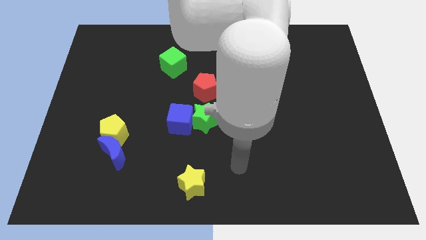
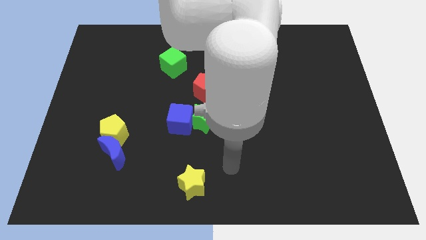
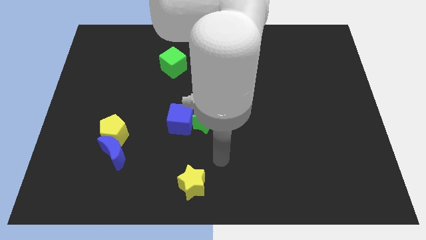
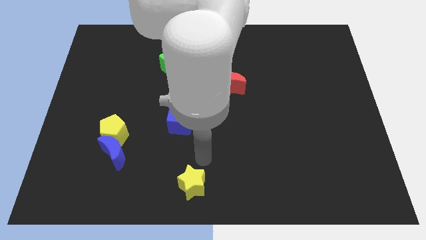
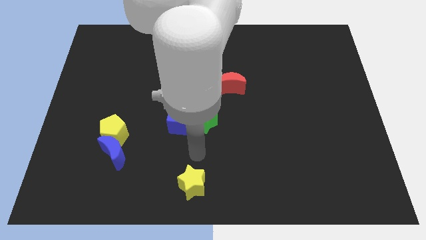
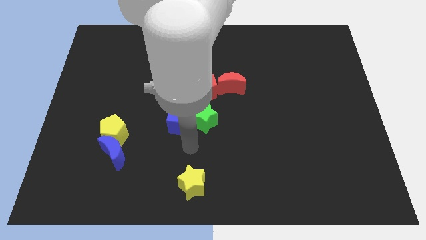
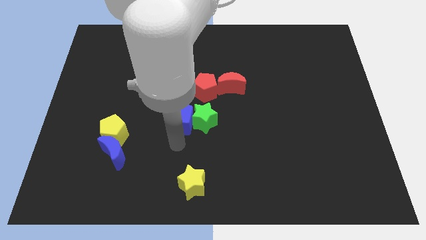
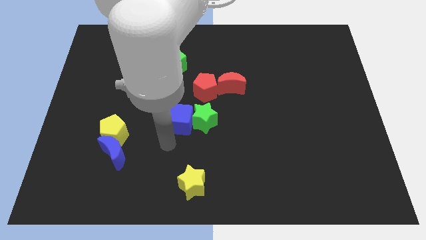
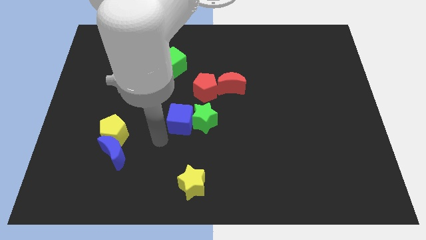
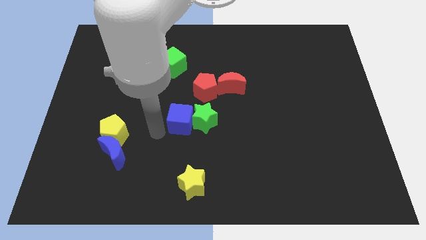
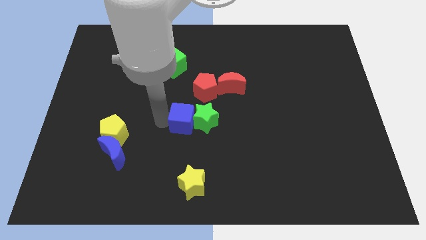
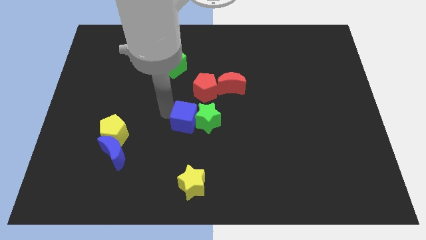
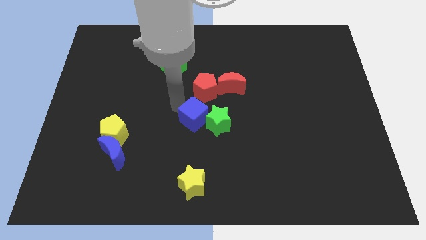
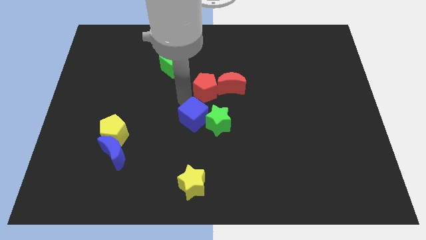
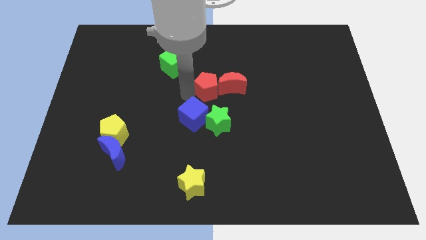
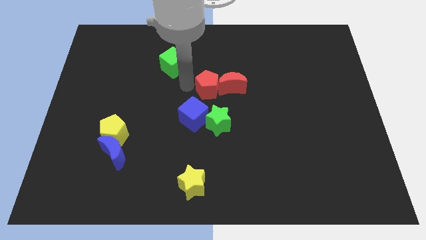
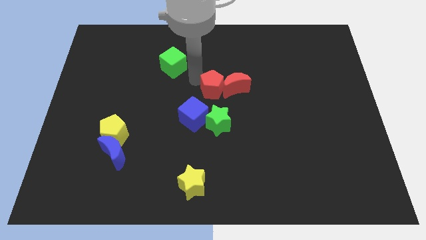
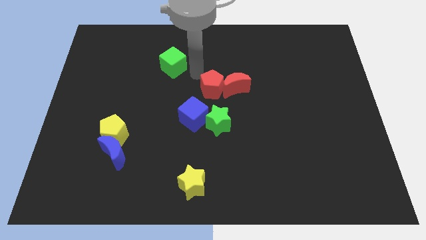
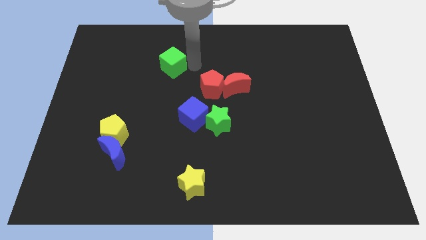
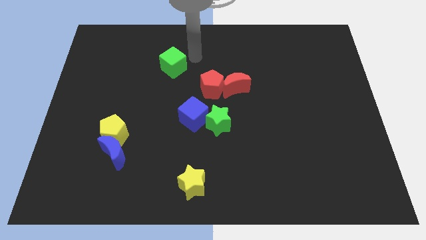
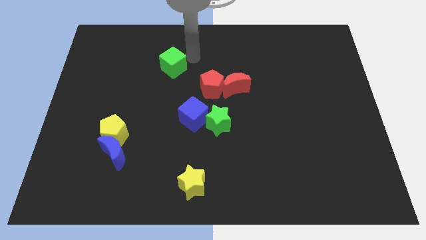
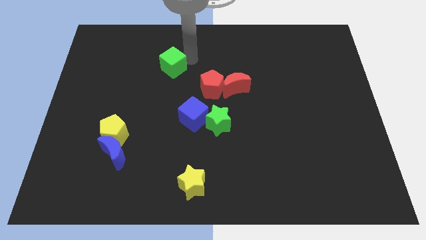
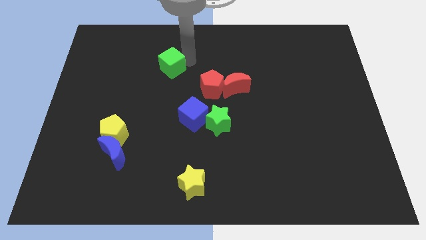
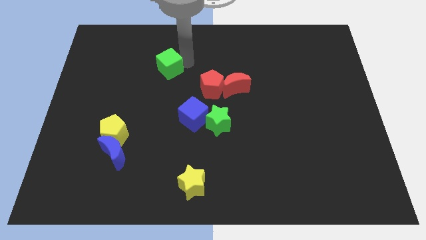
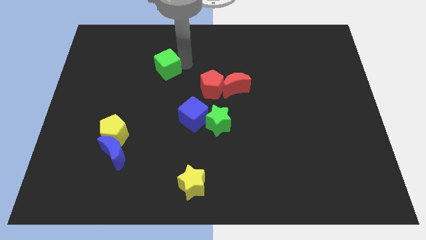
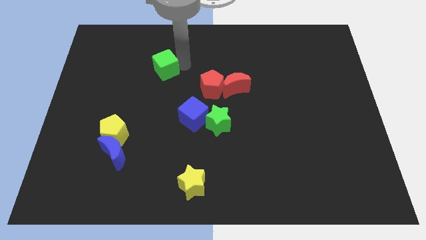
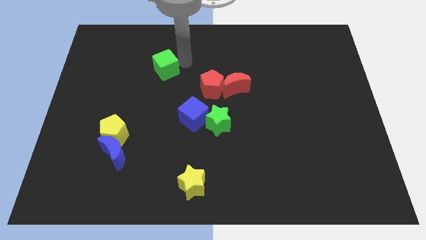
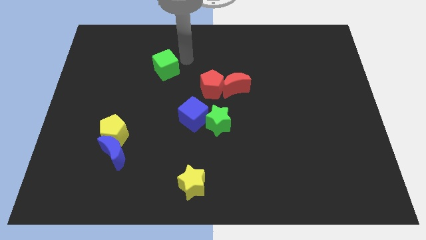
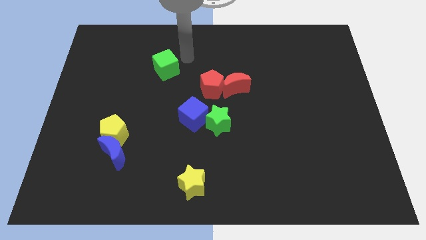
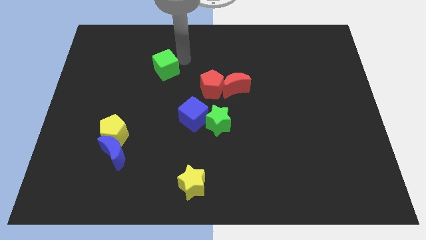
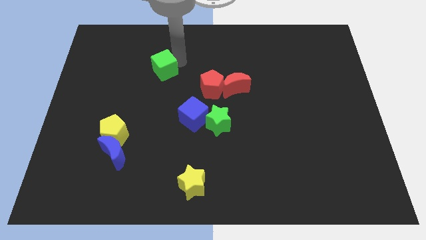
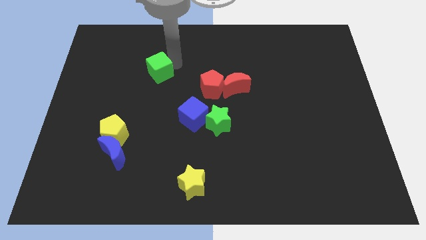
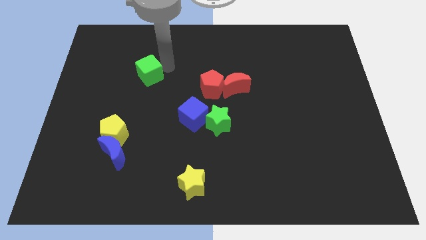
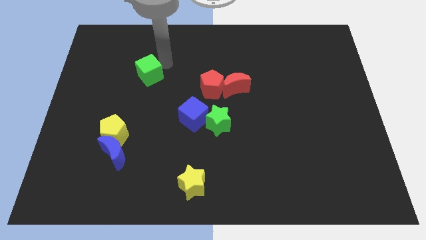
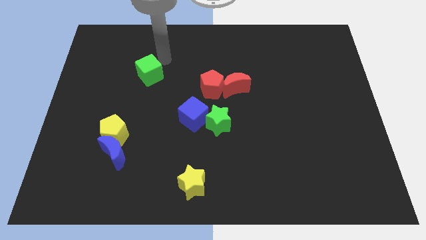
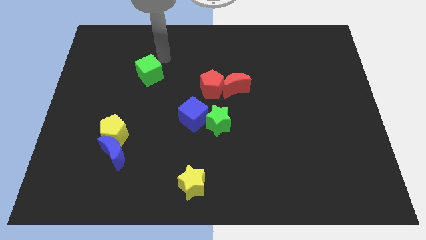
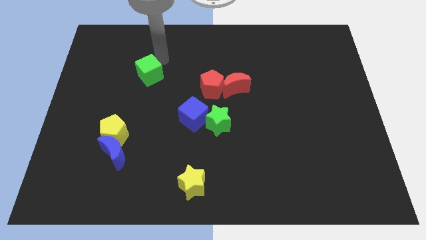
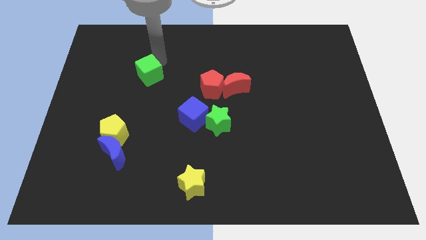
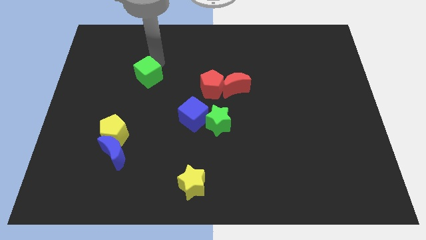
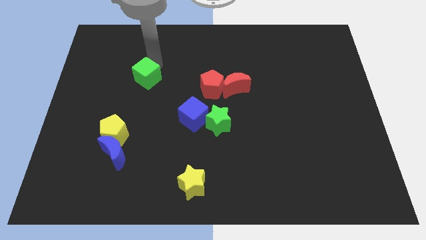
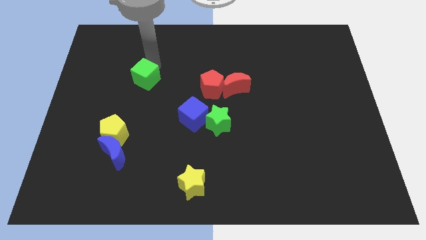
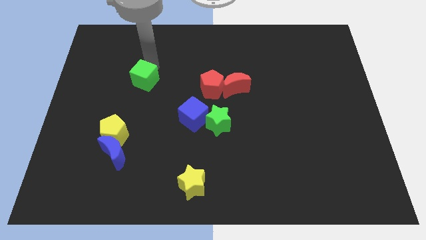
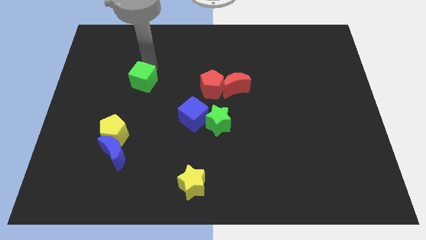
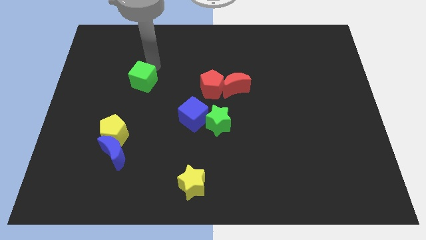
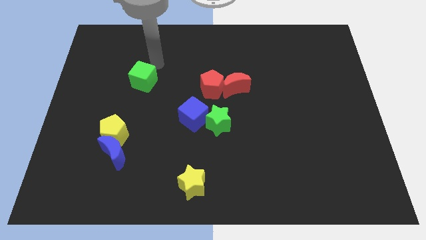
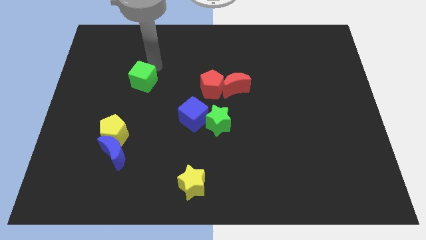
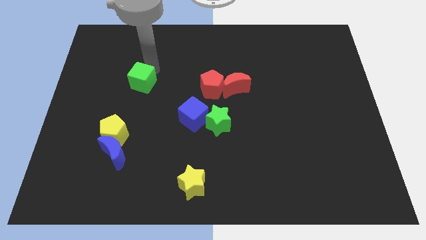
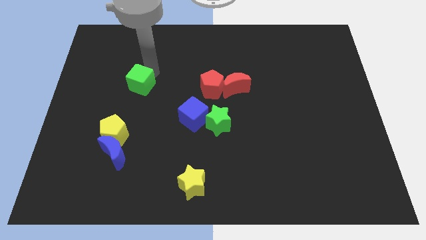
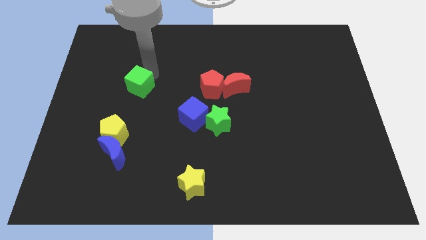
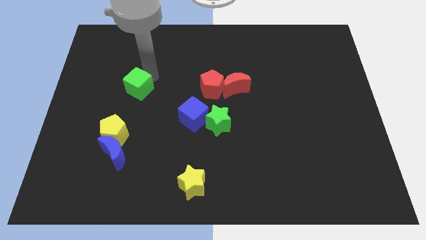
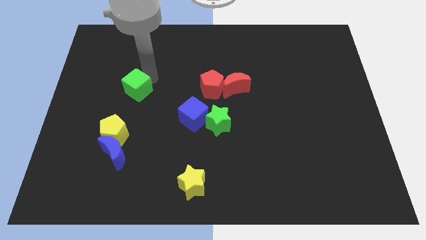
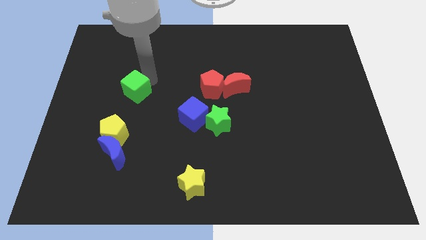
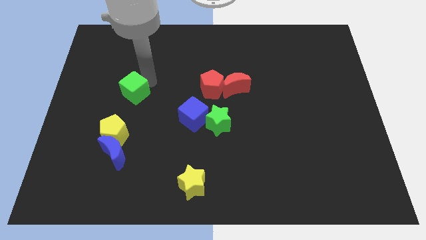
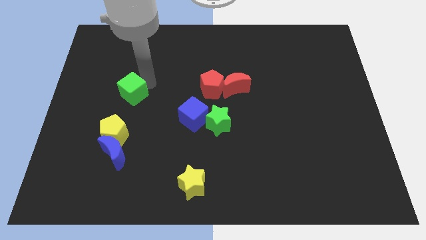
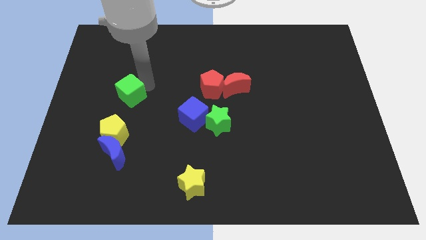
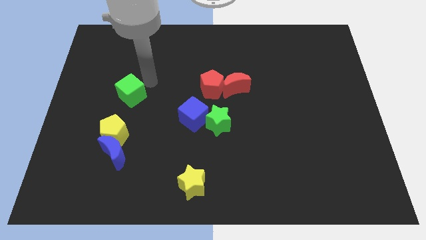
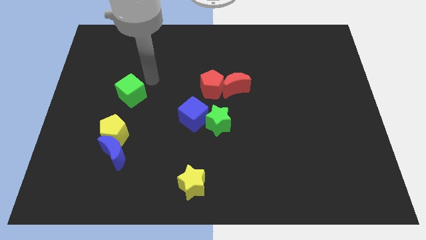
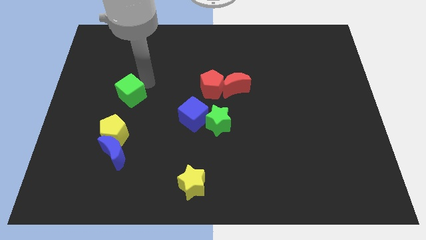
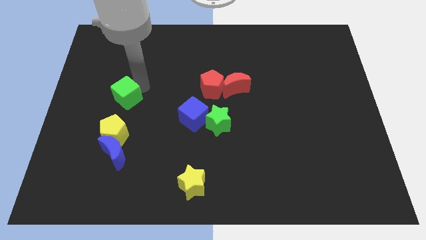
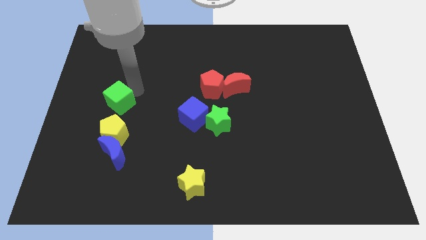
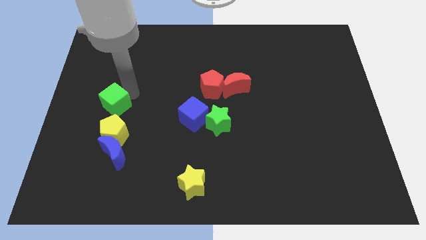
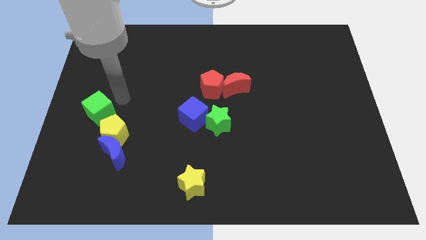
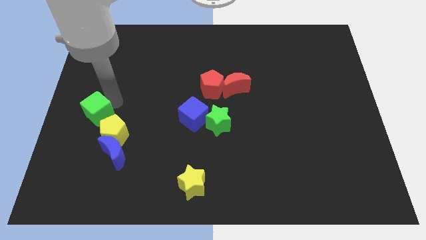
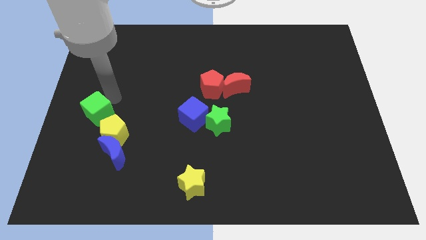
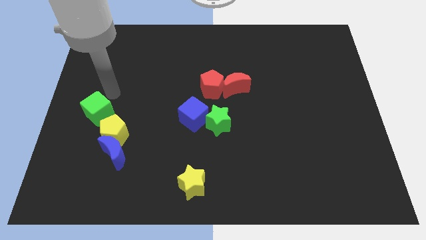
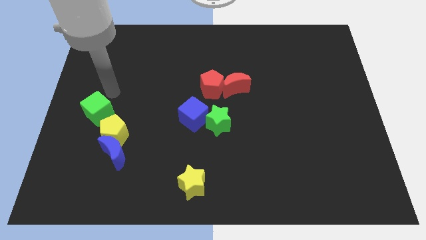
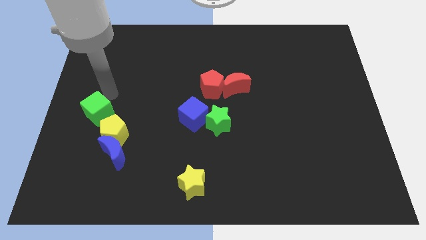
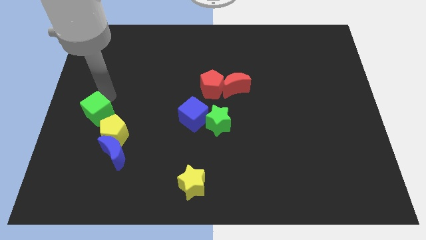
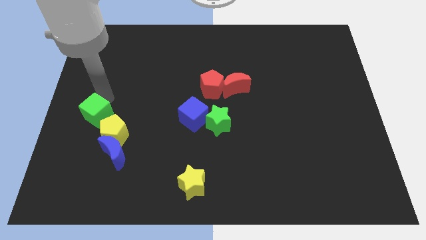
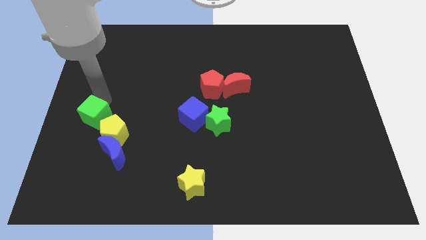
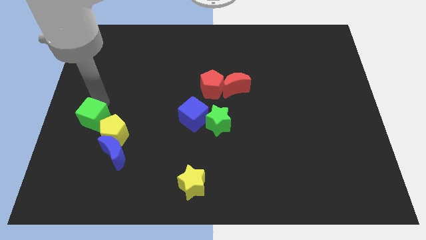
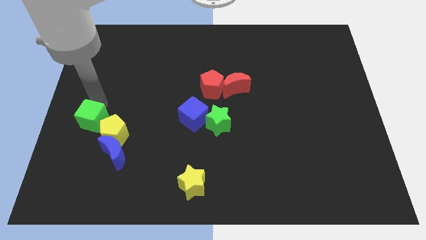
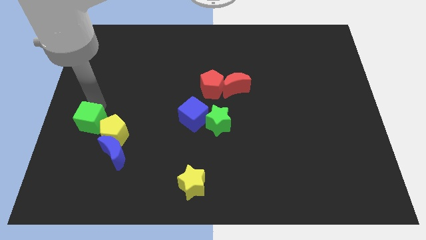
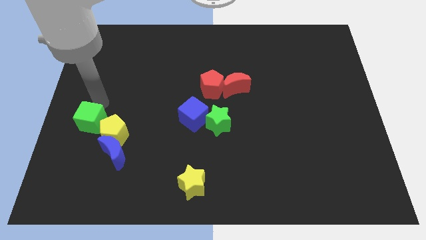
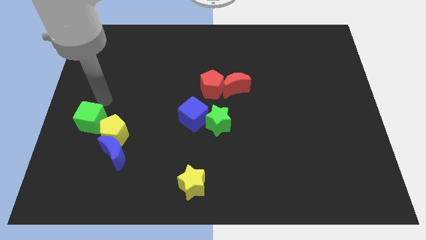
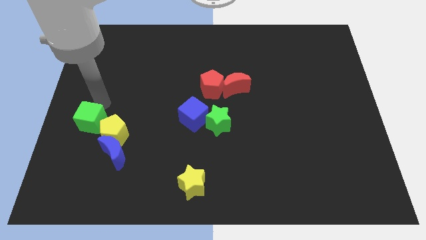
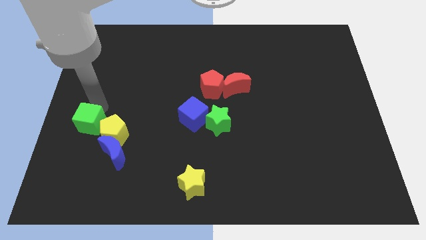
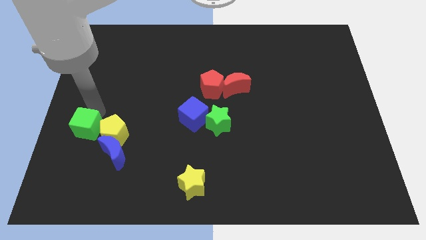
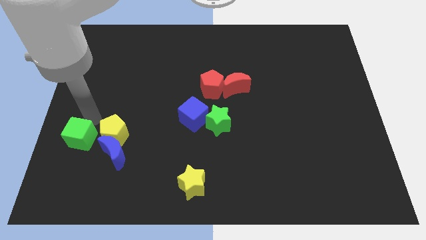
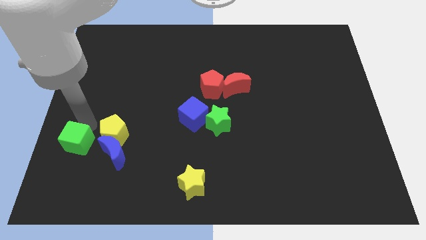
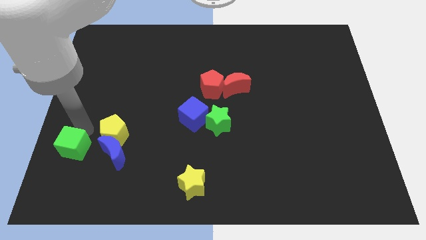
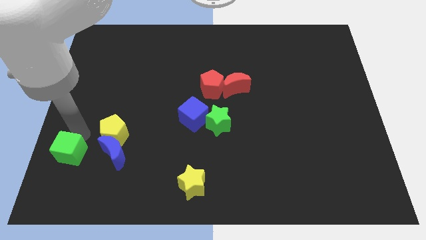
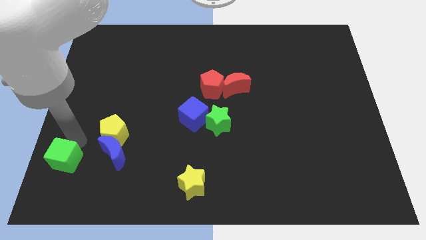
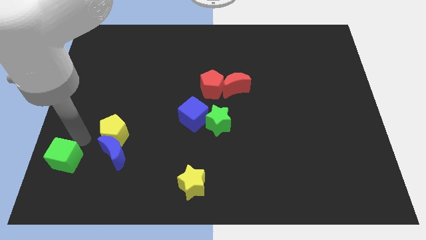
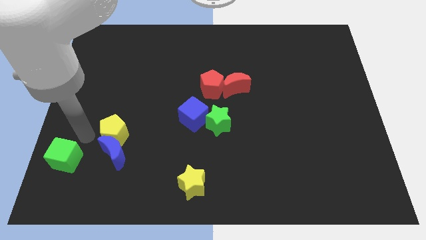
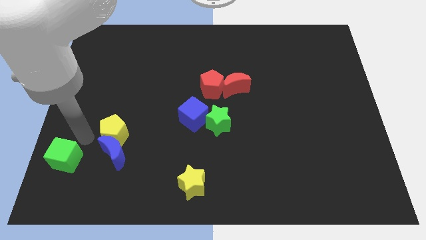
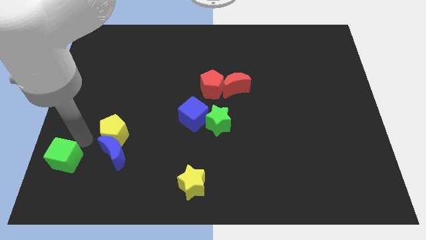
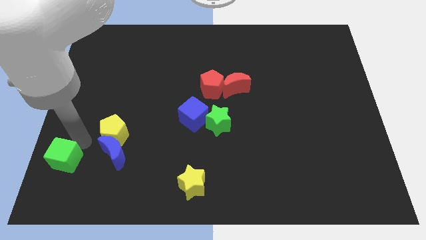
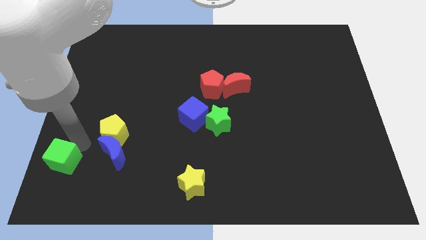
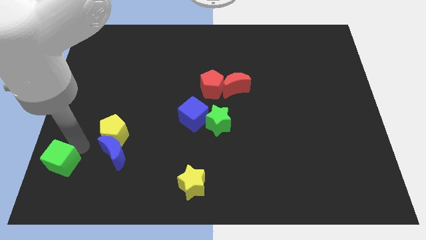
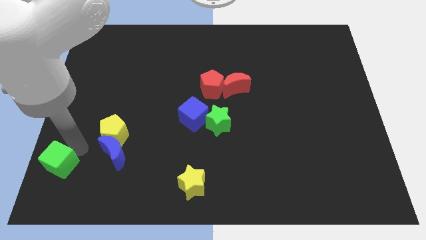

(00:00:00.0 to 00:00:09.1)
move the green cube to the bottom left corner
